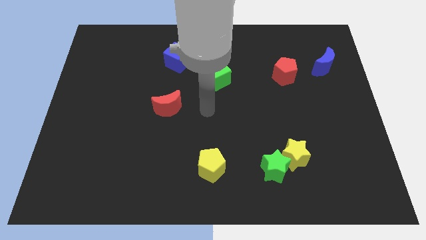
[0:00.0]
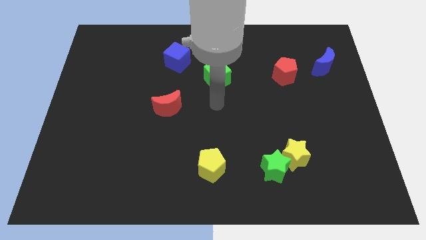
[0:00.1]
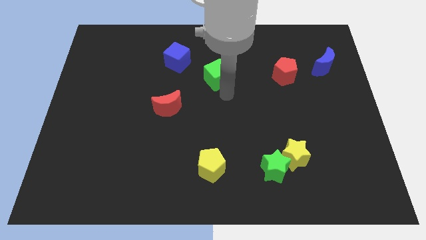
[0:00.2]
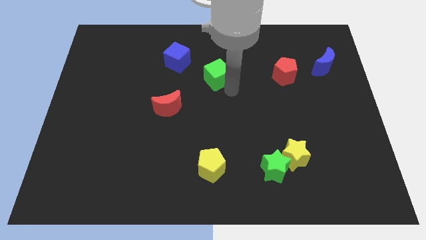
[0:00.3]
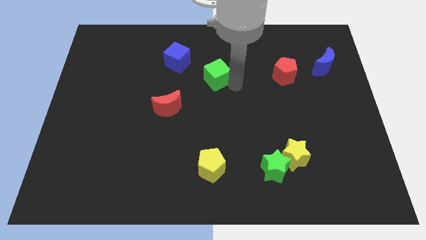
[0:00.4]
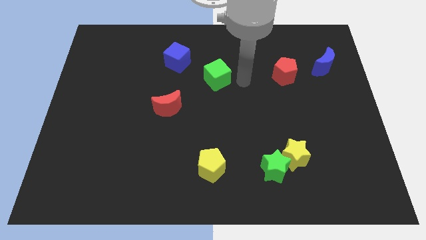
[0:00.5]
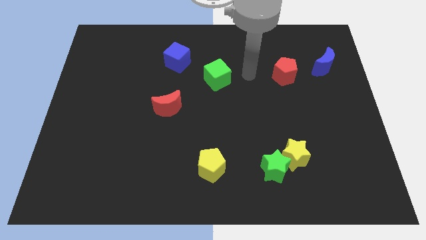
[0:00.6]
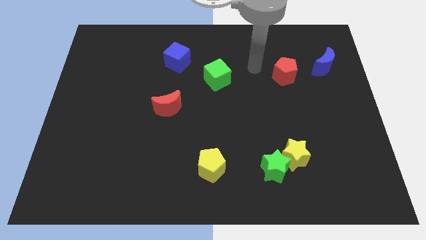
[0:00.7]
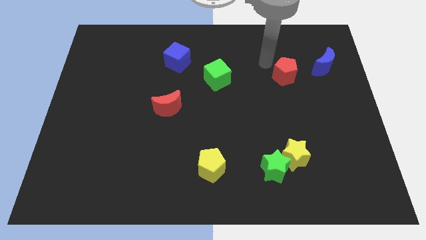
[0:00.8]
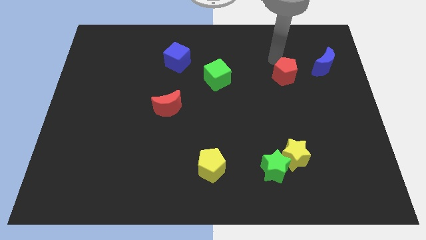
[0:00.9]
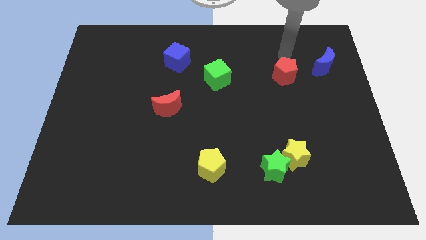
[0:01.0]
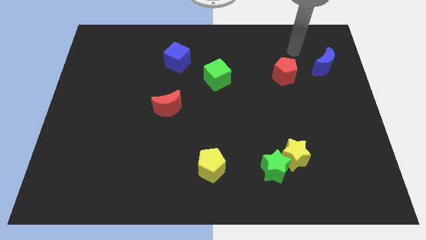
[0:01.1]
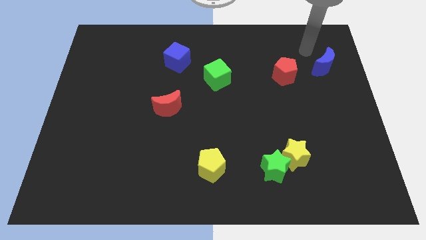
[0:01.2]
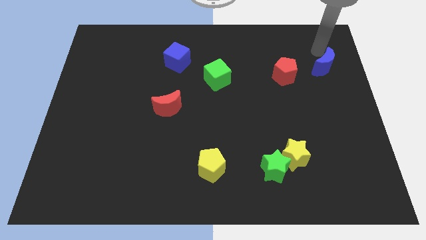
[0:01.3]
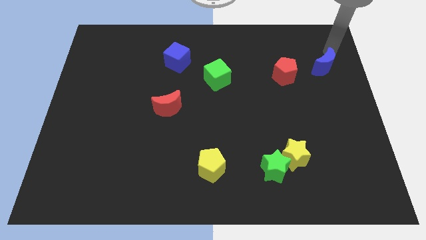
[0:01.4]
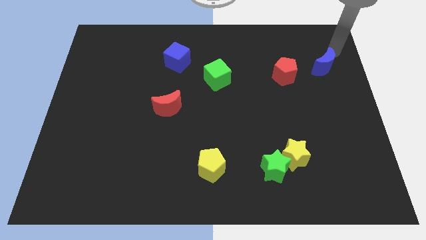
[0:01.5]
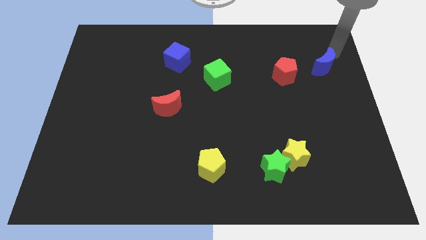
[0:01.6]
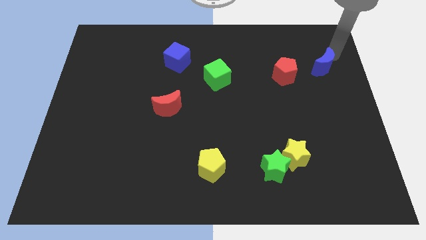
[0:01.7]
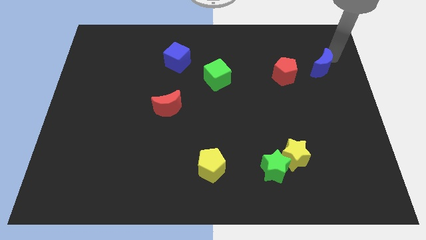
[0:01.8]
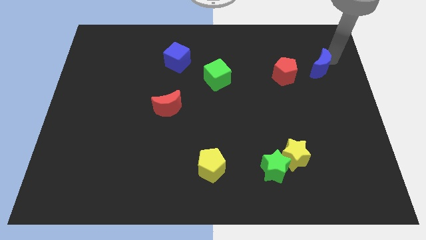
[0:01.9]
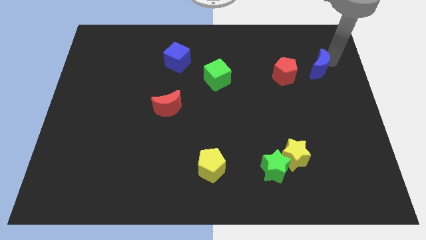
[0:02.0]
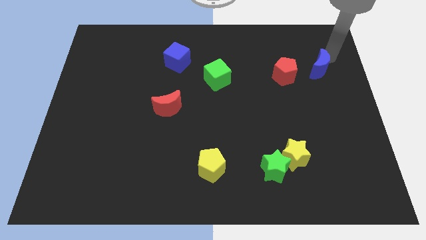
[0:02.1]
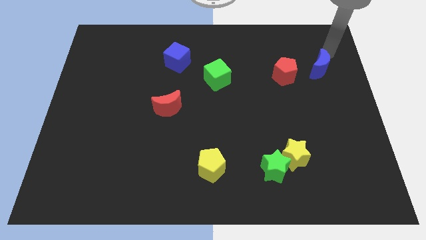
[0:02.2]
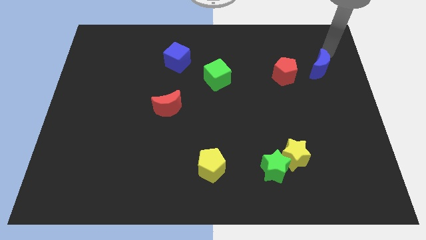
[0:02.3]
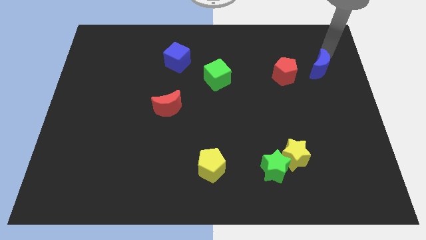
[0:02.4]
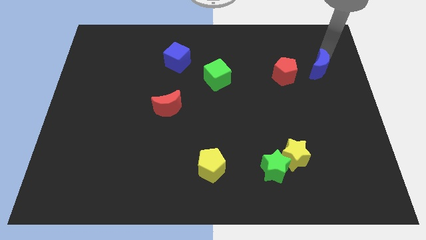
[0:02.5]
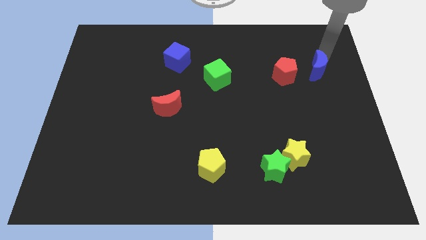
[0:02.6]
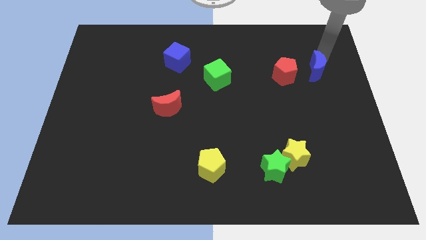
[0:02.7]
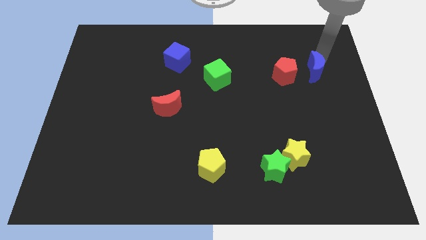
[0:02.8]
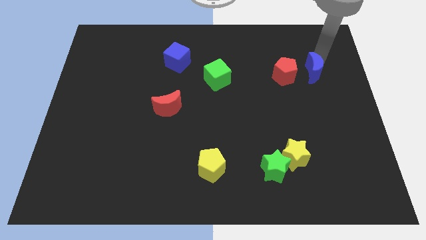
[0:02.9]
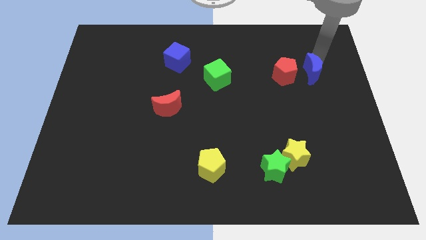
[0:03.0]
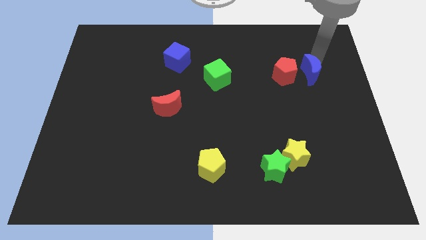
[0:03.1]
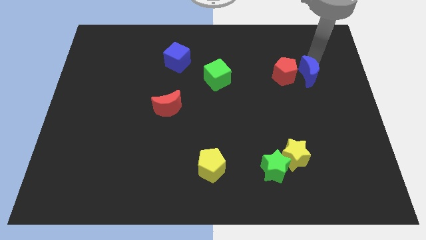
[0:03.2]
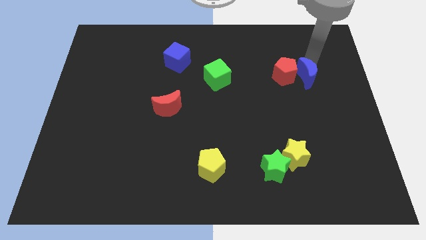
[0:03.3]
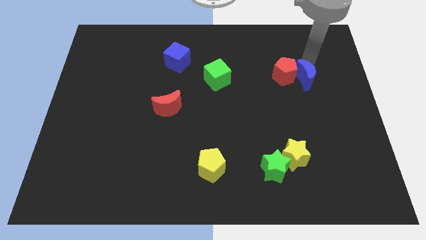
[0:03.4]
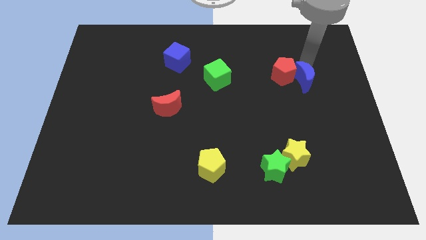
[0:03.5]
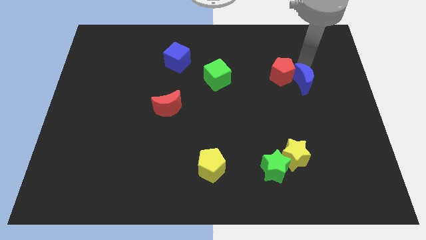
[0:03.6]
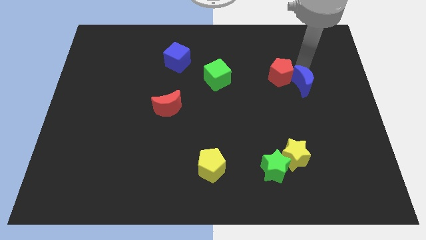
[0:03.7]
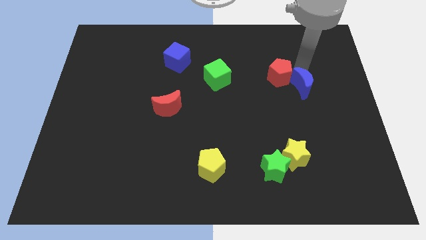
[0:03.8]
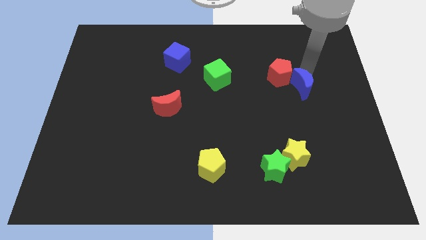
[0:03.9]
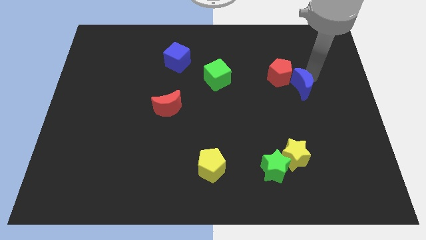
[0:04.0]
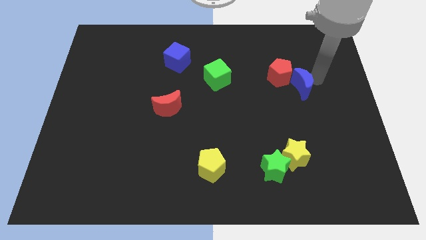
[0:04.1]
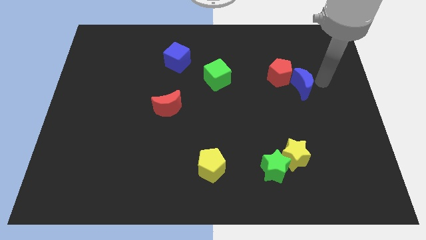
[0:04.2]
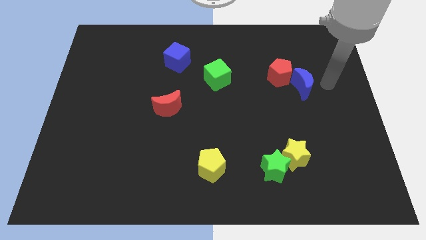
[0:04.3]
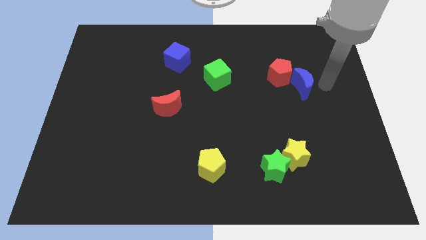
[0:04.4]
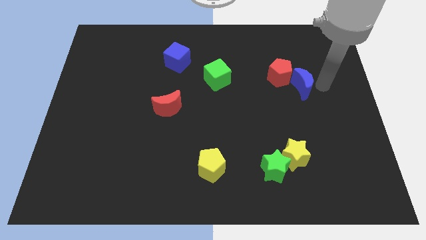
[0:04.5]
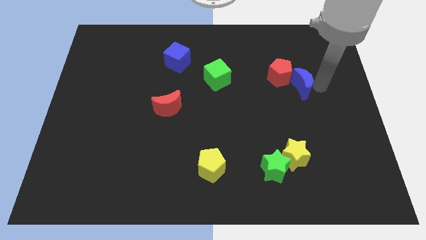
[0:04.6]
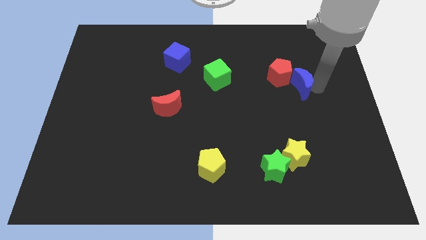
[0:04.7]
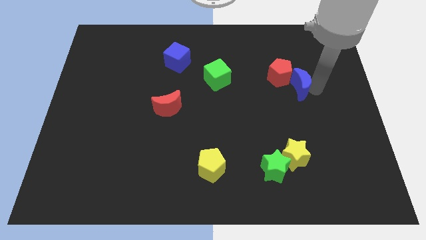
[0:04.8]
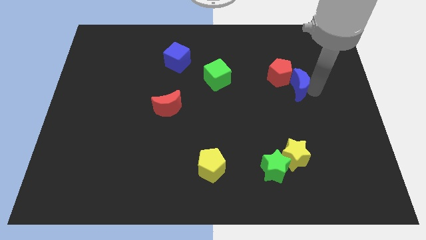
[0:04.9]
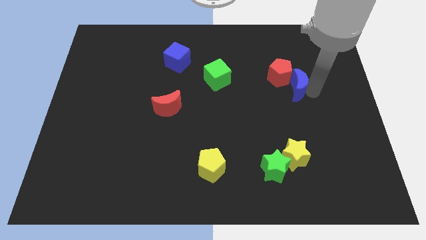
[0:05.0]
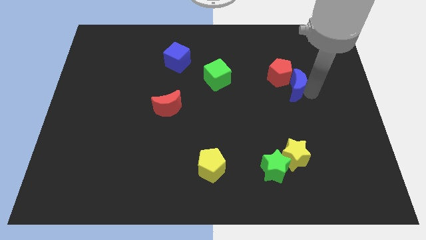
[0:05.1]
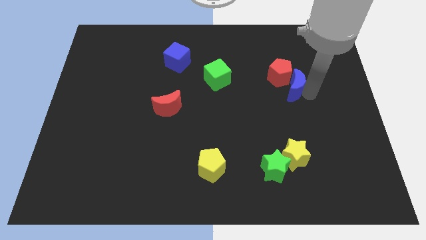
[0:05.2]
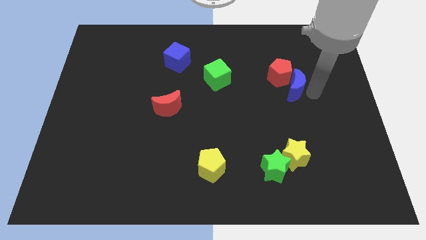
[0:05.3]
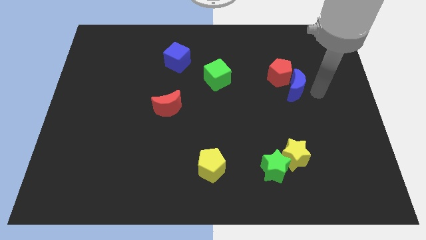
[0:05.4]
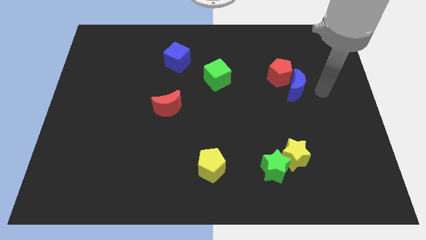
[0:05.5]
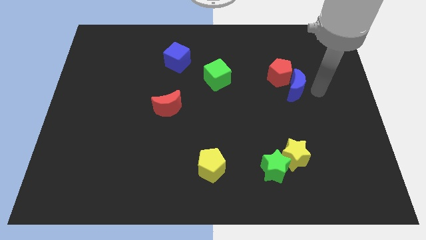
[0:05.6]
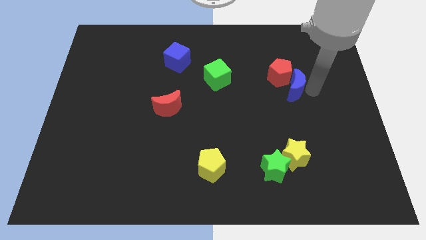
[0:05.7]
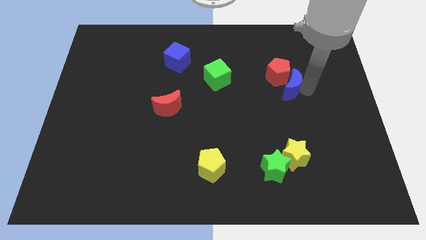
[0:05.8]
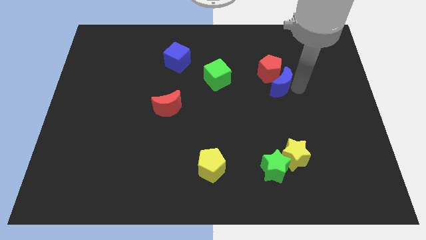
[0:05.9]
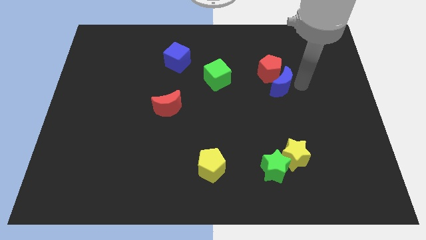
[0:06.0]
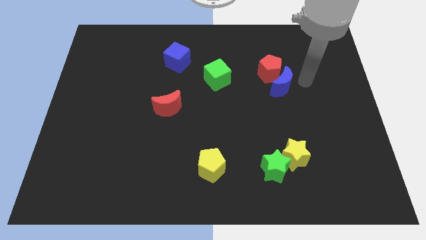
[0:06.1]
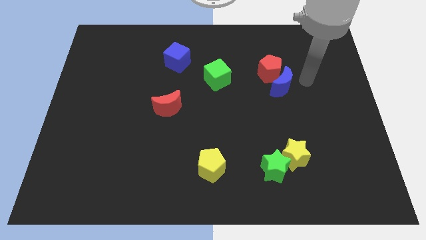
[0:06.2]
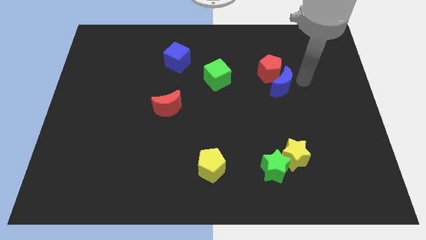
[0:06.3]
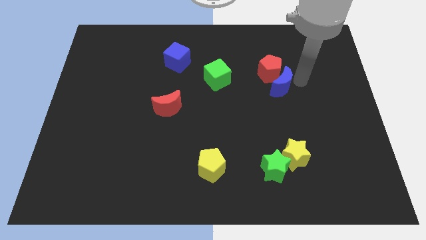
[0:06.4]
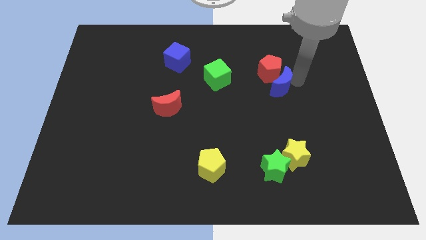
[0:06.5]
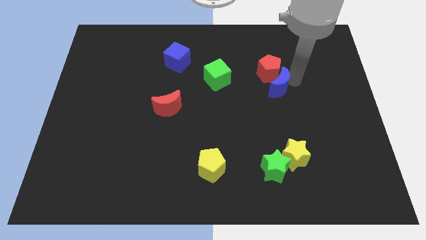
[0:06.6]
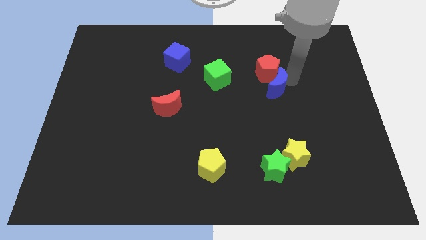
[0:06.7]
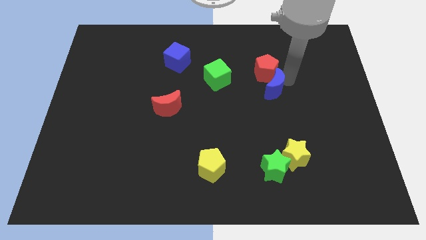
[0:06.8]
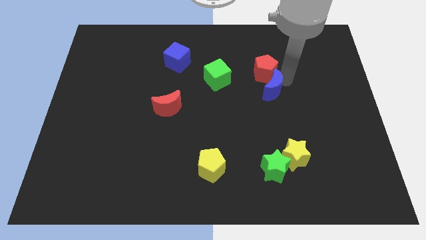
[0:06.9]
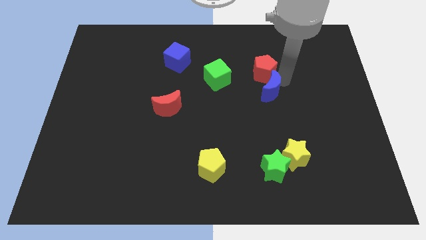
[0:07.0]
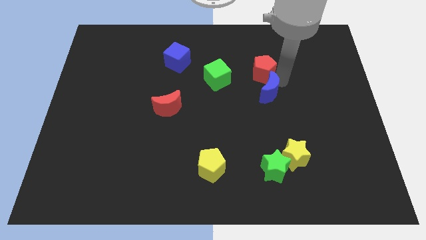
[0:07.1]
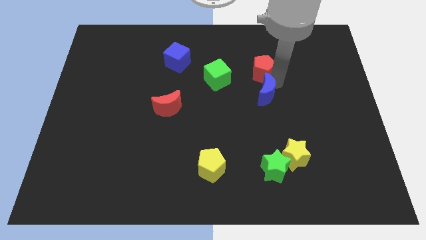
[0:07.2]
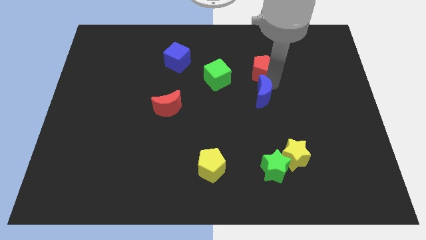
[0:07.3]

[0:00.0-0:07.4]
slide the blue moon to the middle
